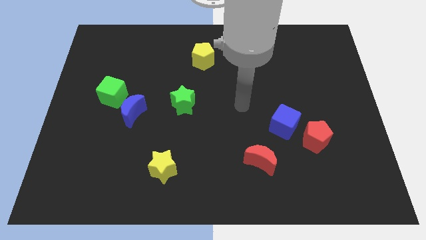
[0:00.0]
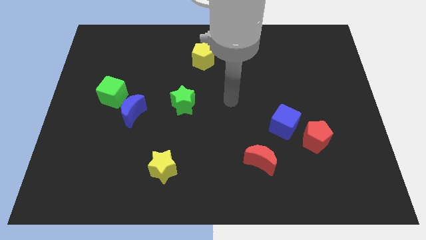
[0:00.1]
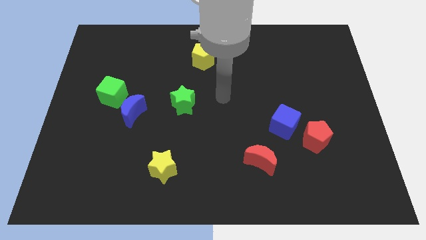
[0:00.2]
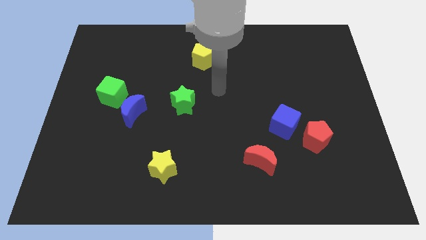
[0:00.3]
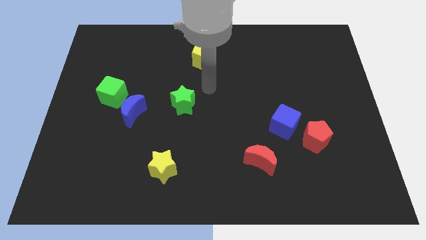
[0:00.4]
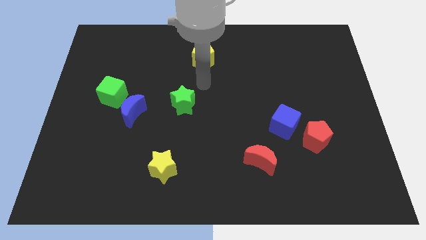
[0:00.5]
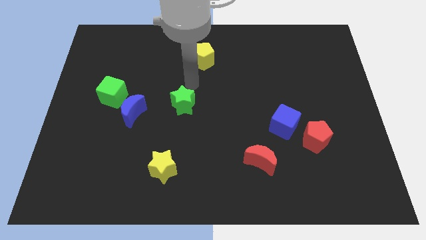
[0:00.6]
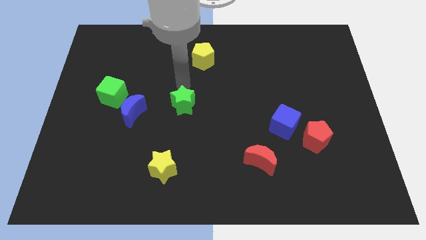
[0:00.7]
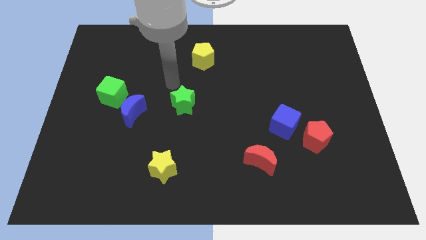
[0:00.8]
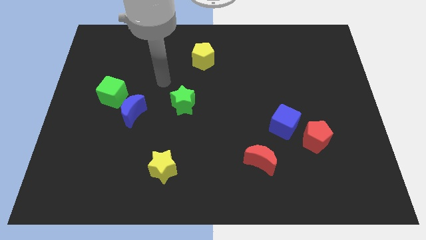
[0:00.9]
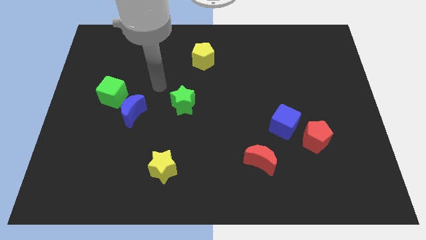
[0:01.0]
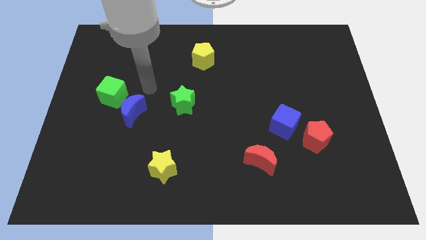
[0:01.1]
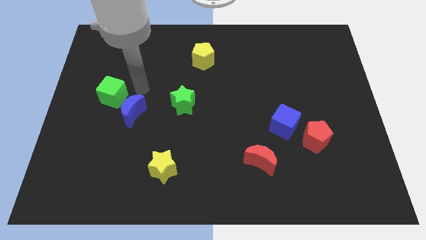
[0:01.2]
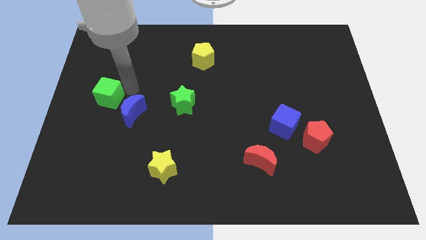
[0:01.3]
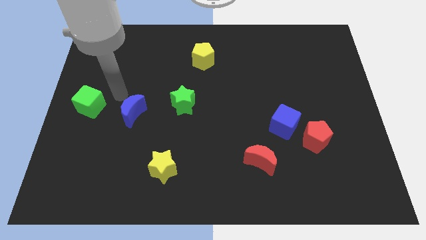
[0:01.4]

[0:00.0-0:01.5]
pull the blue moon apart from the green cube

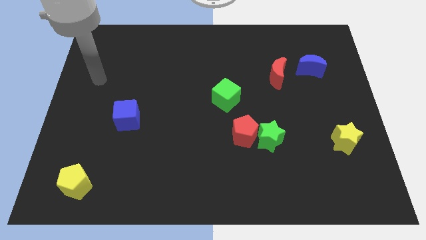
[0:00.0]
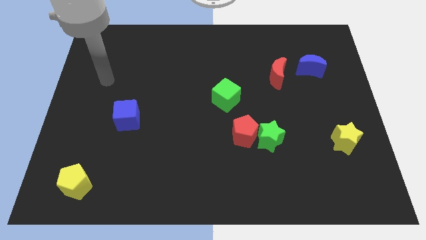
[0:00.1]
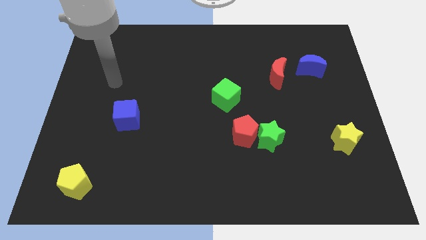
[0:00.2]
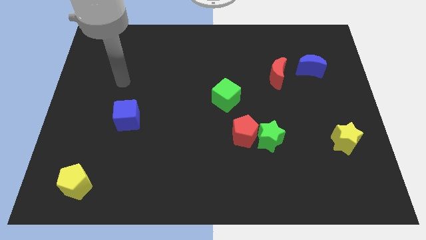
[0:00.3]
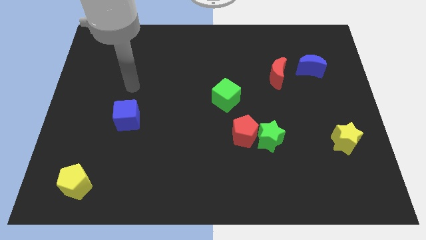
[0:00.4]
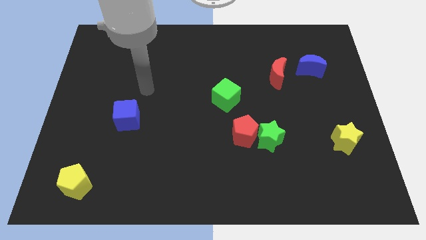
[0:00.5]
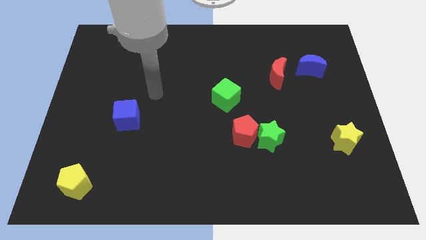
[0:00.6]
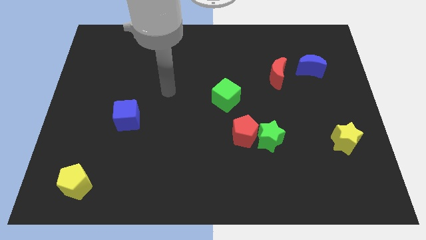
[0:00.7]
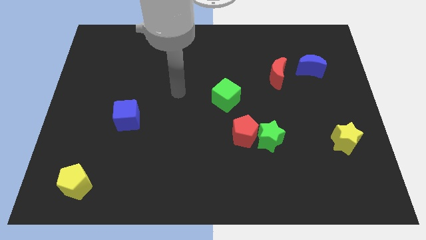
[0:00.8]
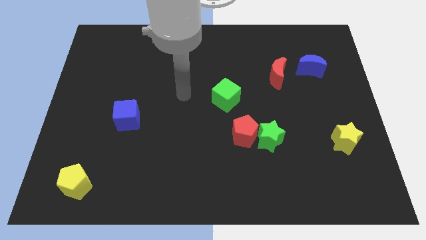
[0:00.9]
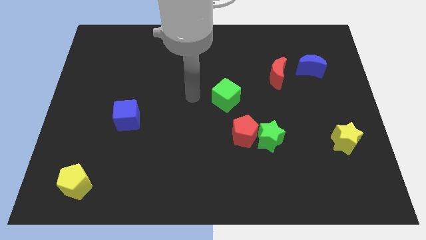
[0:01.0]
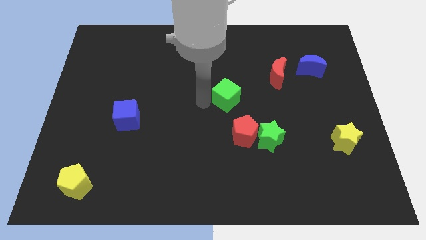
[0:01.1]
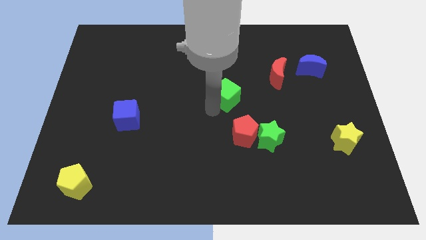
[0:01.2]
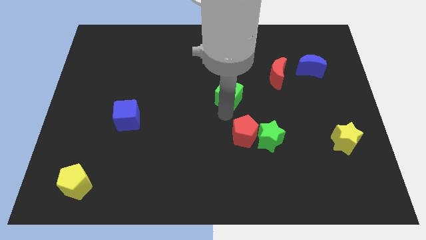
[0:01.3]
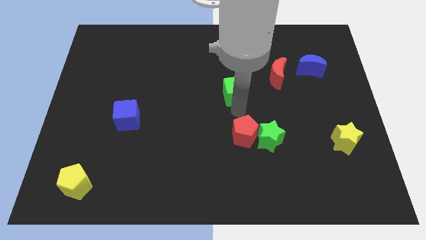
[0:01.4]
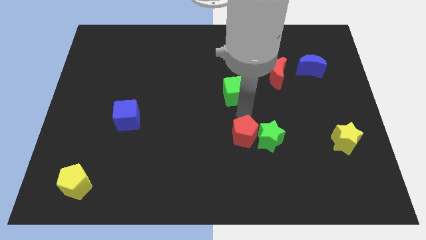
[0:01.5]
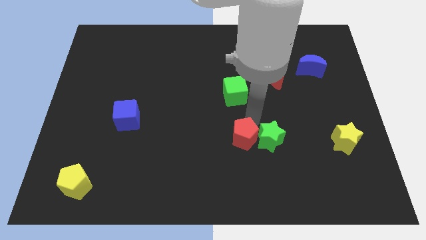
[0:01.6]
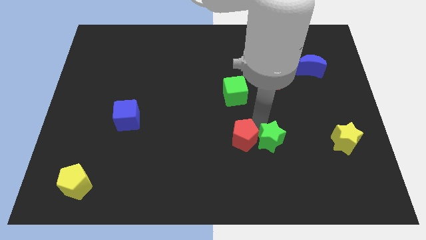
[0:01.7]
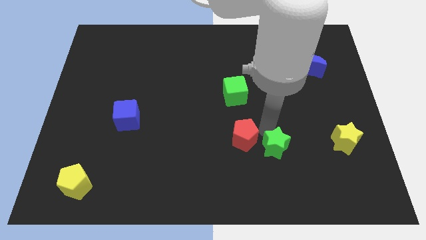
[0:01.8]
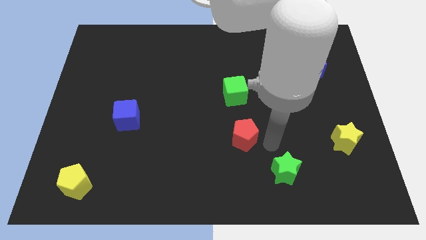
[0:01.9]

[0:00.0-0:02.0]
pull the red pentagon apart from the green star

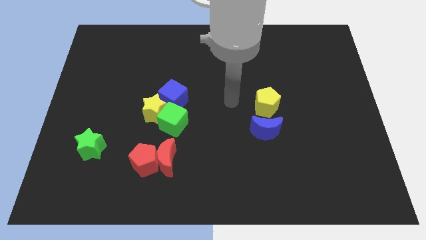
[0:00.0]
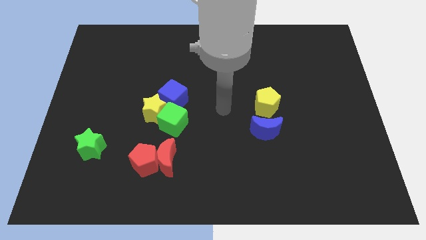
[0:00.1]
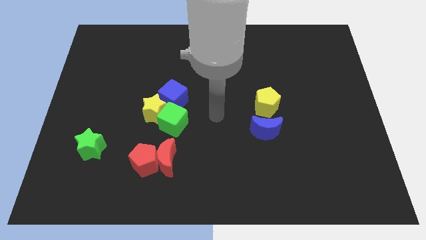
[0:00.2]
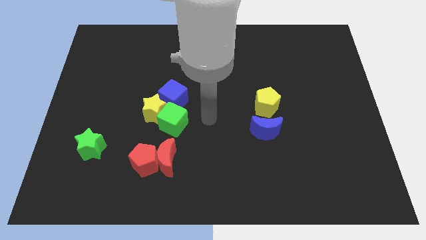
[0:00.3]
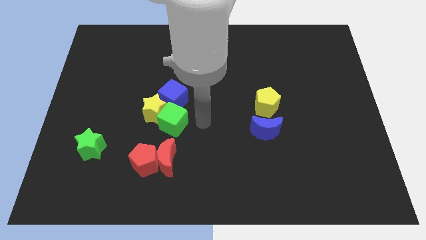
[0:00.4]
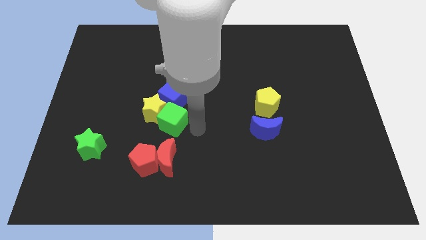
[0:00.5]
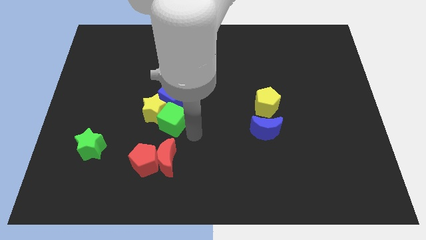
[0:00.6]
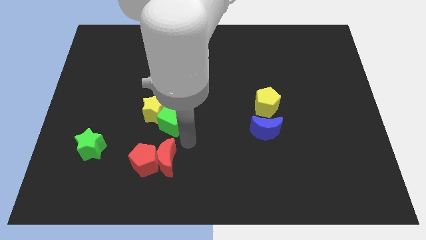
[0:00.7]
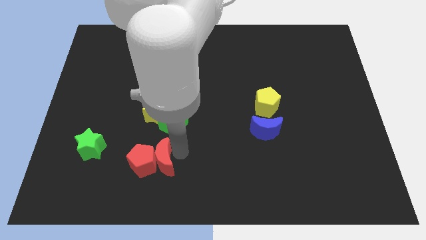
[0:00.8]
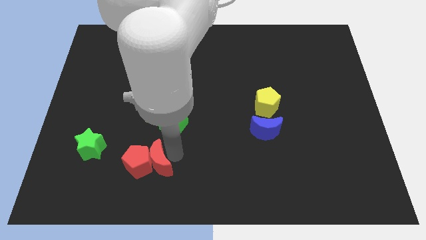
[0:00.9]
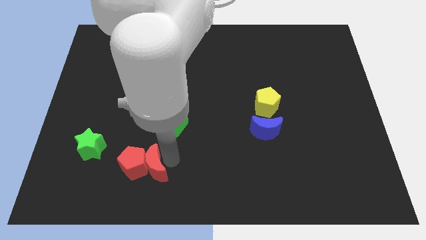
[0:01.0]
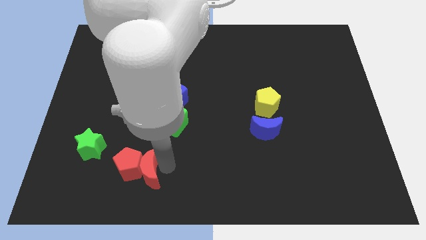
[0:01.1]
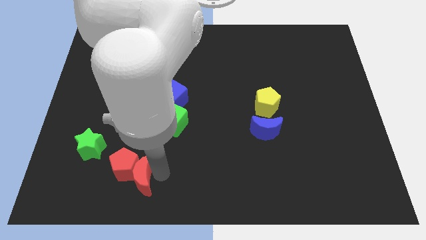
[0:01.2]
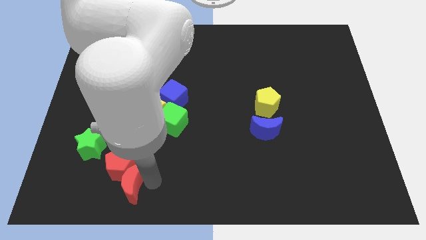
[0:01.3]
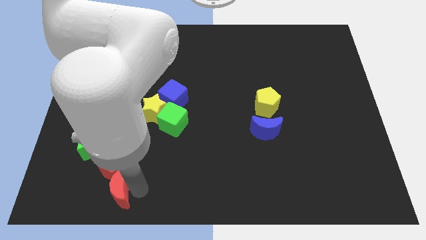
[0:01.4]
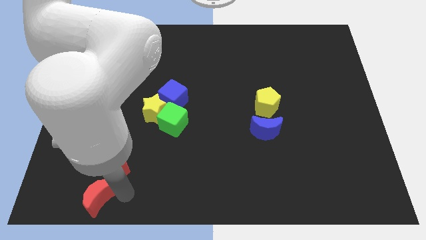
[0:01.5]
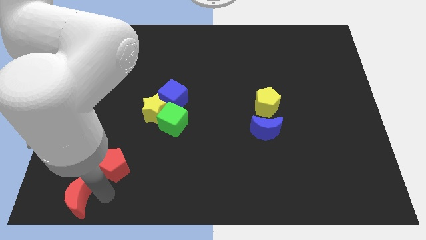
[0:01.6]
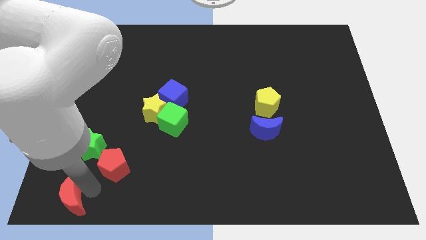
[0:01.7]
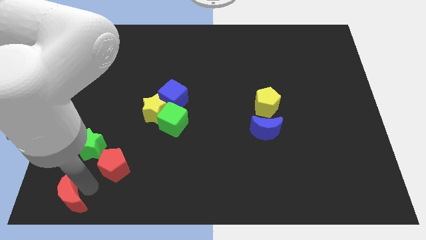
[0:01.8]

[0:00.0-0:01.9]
separate the red pentagon from the red moon

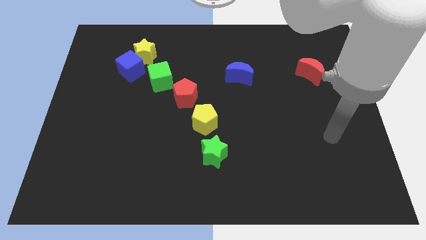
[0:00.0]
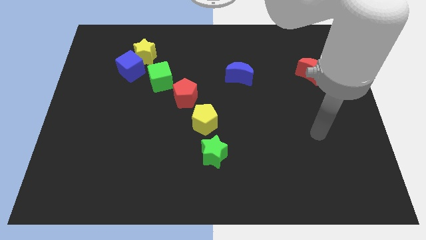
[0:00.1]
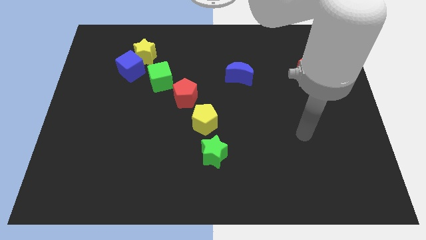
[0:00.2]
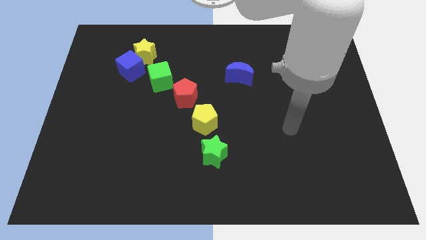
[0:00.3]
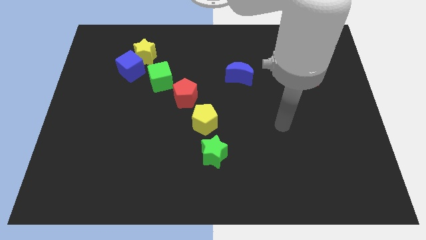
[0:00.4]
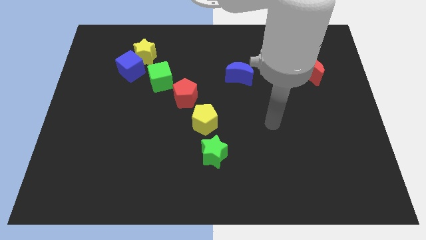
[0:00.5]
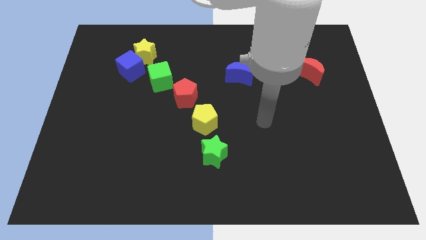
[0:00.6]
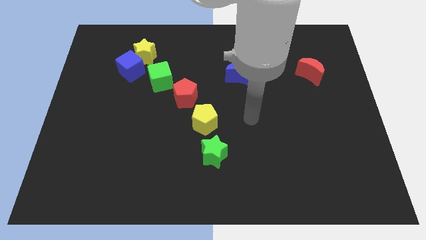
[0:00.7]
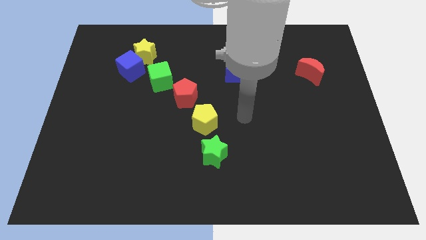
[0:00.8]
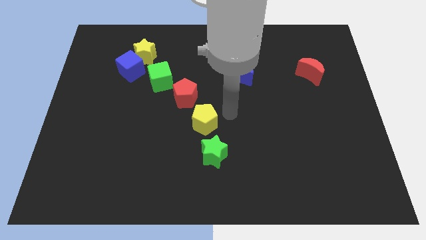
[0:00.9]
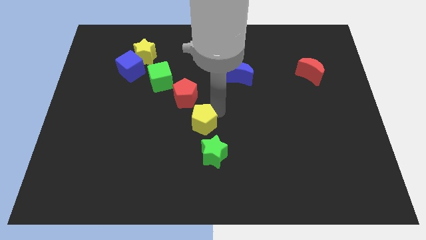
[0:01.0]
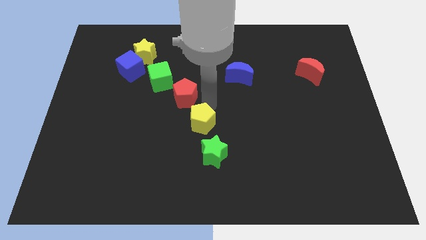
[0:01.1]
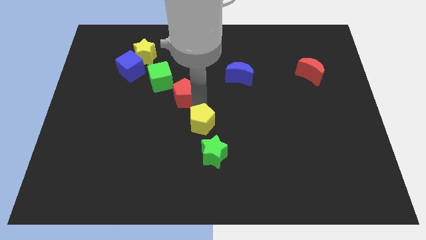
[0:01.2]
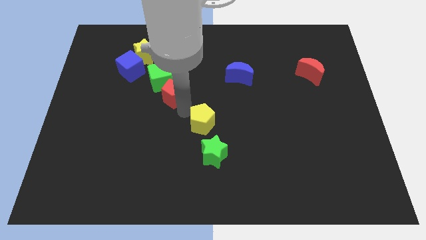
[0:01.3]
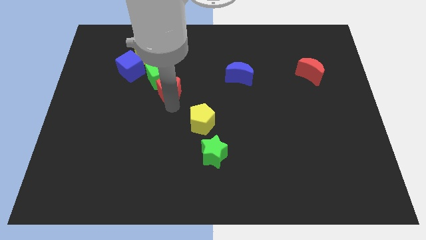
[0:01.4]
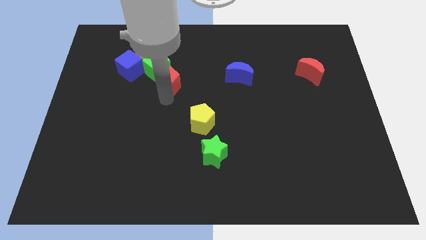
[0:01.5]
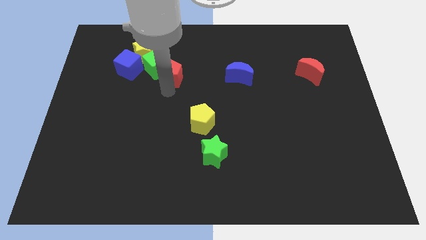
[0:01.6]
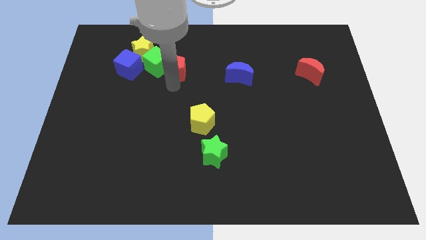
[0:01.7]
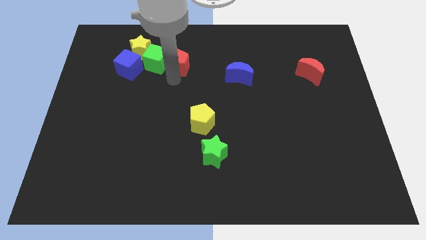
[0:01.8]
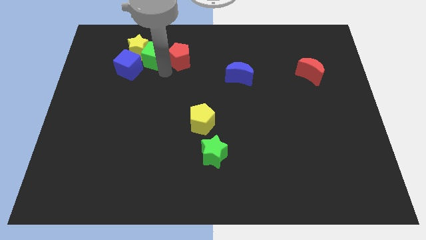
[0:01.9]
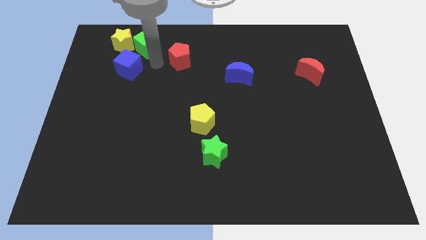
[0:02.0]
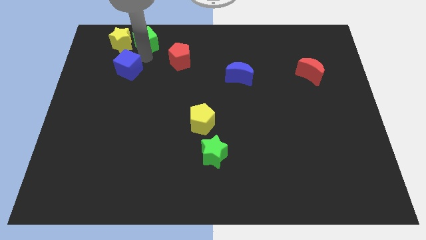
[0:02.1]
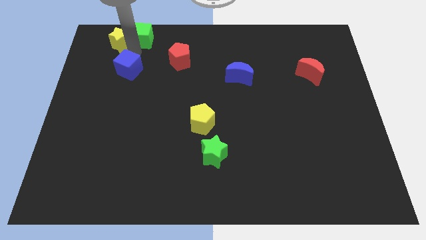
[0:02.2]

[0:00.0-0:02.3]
pull the blue cube apart from the yellow star and green cube

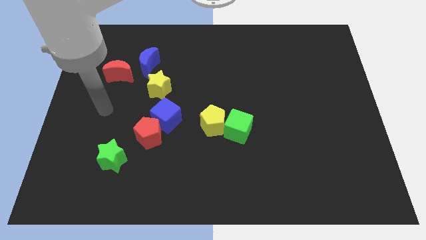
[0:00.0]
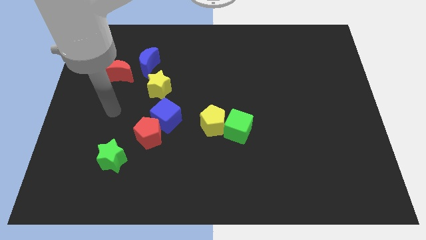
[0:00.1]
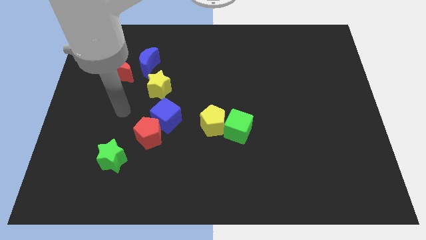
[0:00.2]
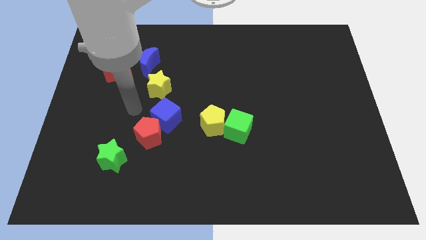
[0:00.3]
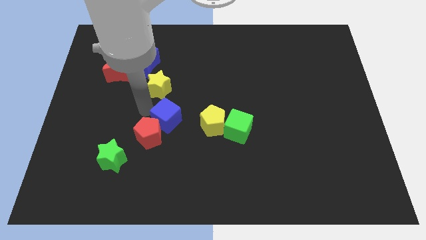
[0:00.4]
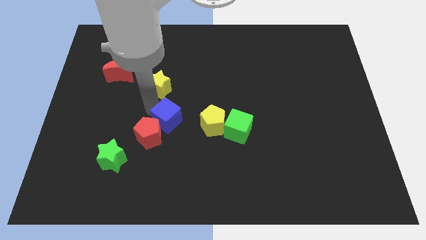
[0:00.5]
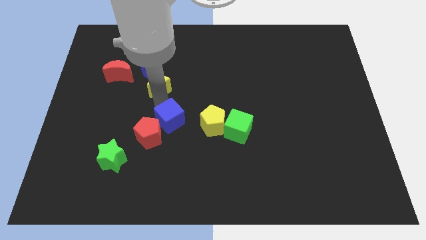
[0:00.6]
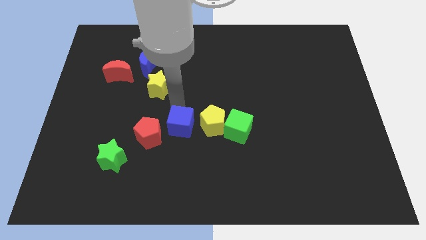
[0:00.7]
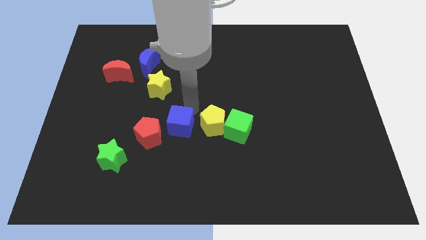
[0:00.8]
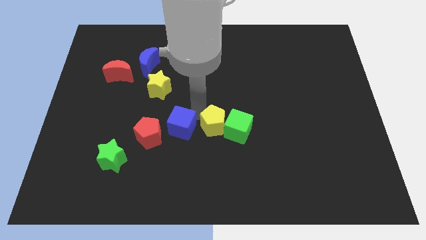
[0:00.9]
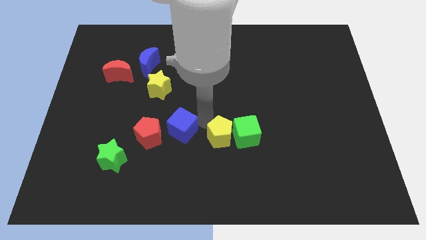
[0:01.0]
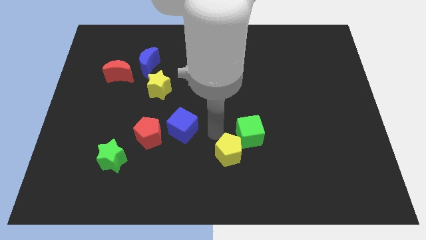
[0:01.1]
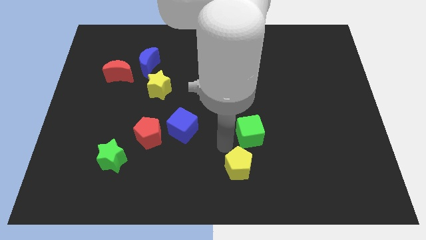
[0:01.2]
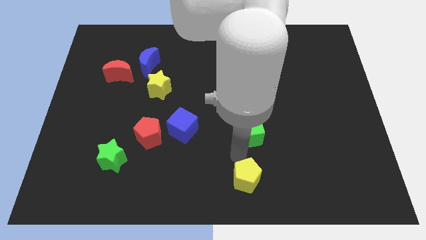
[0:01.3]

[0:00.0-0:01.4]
move the green cube away from the yellow pentagon
